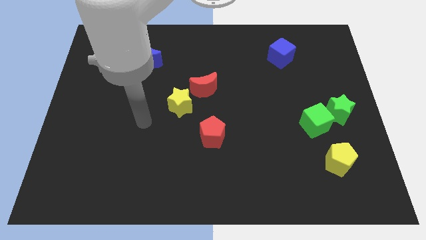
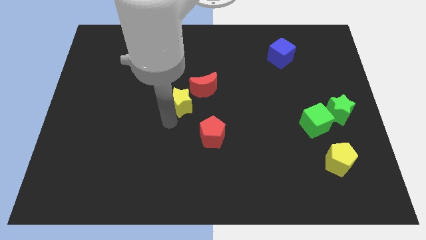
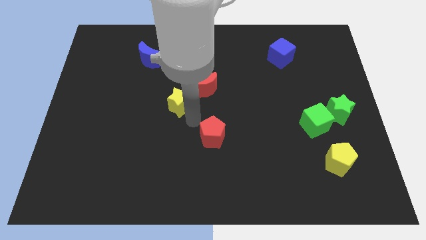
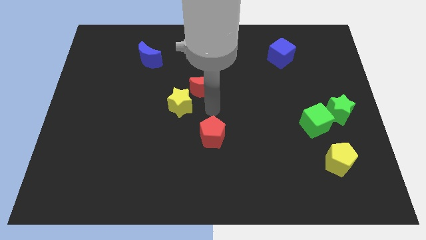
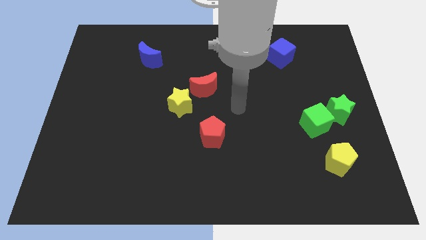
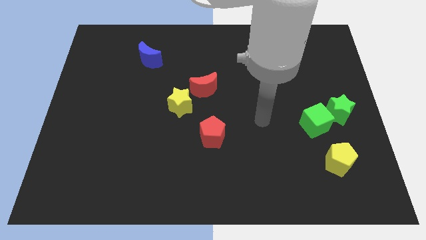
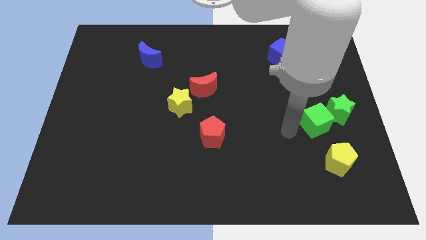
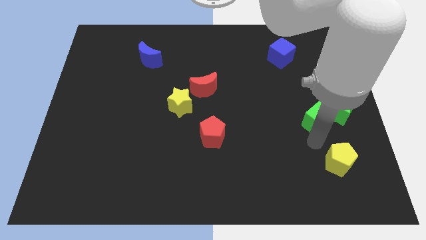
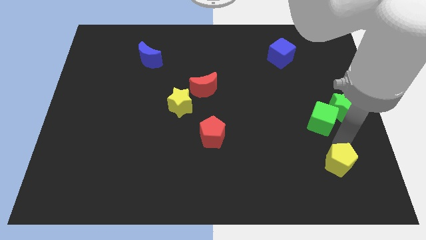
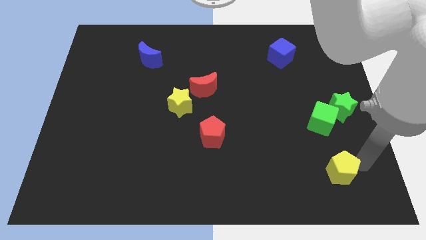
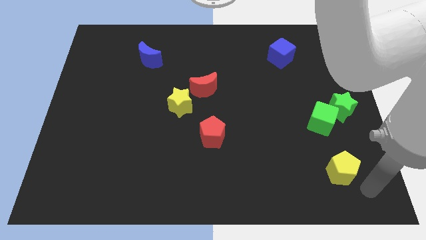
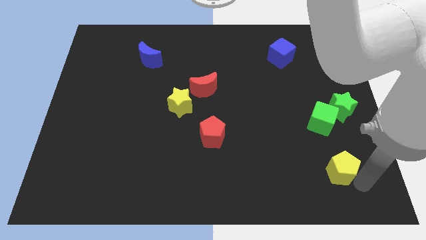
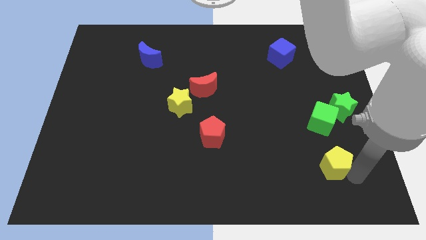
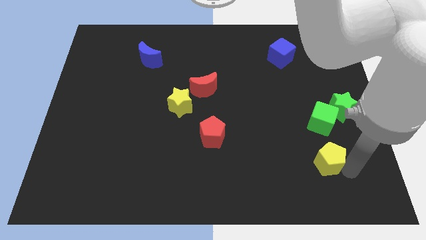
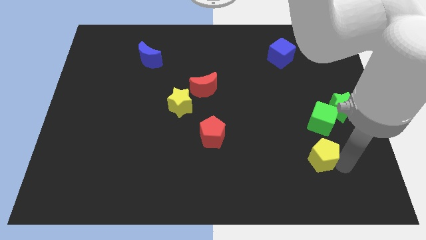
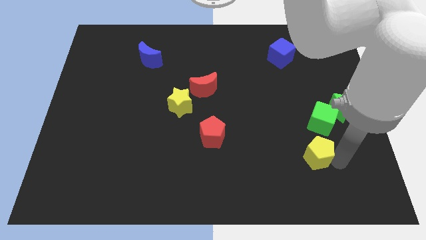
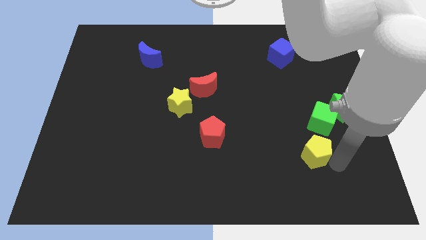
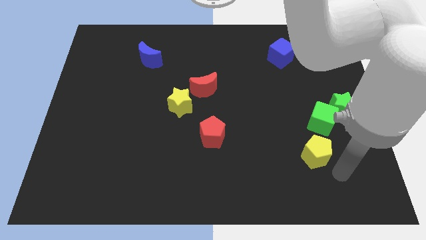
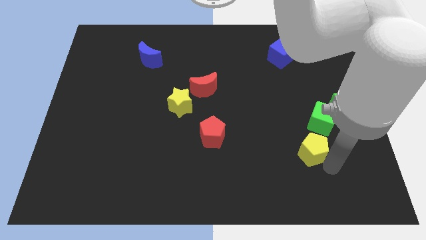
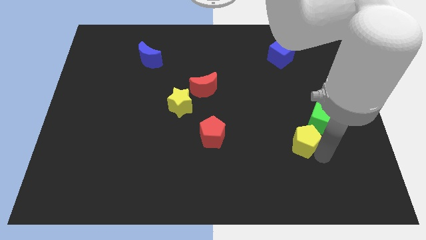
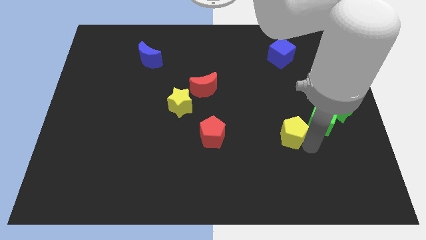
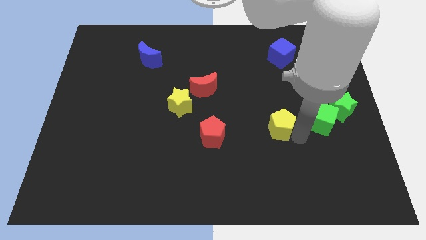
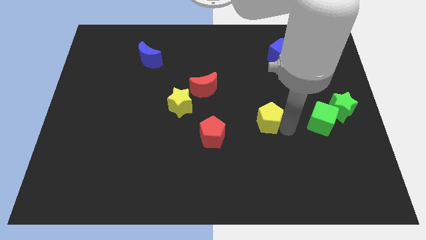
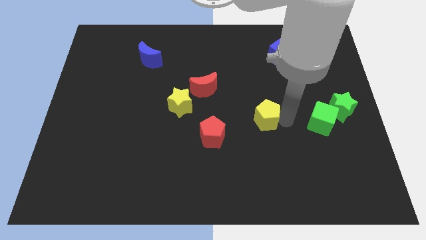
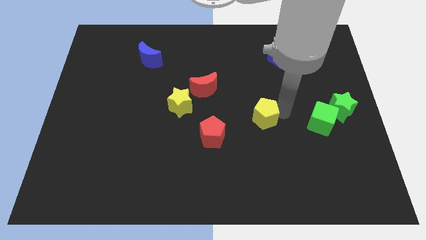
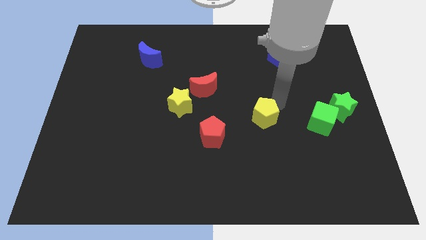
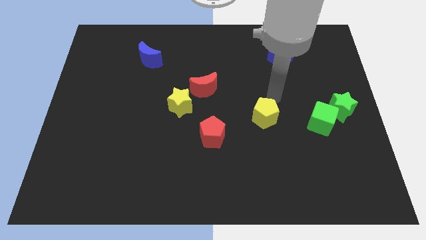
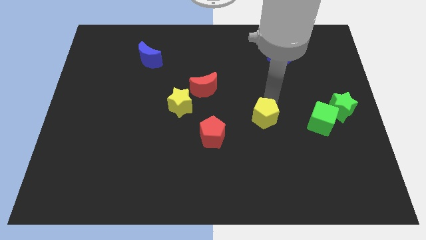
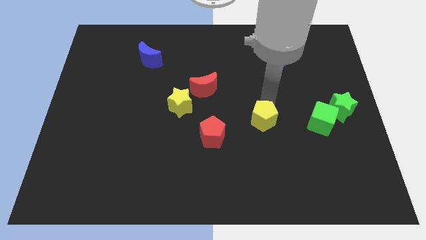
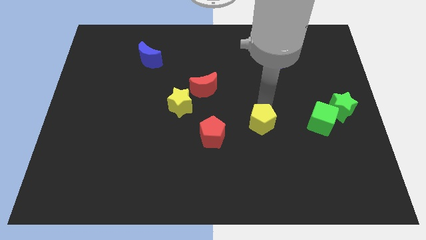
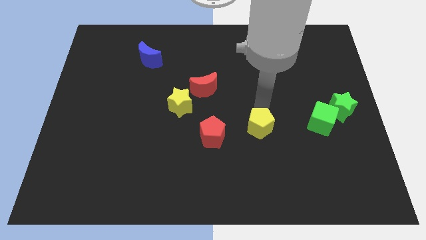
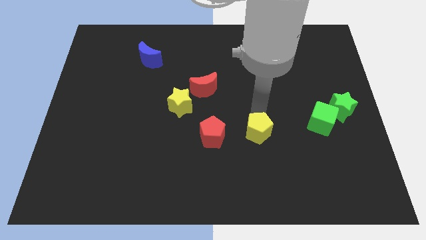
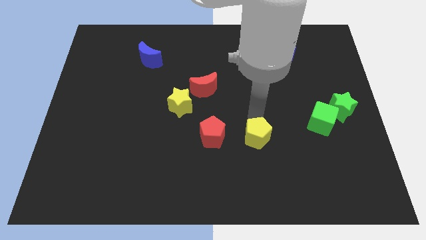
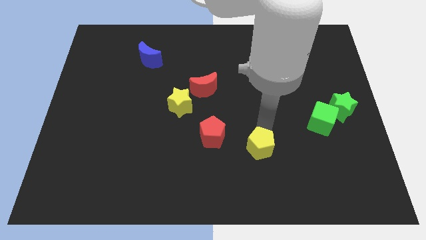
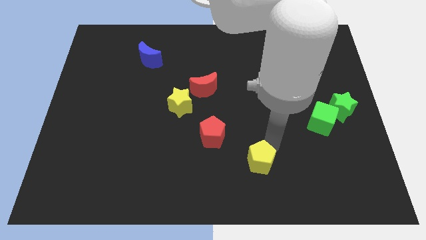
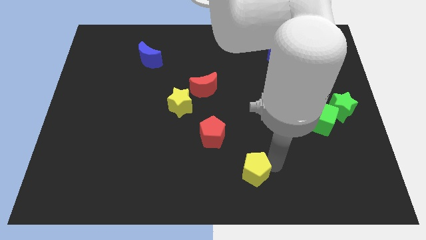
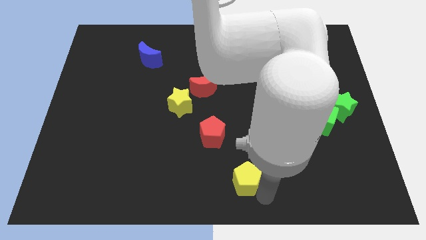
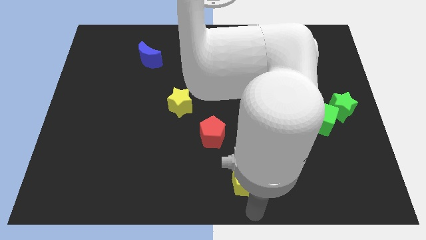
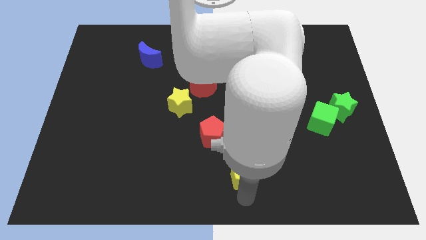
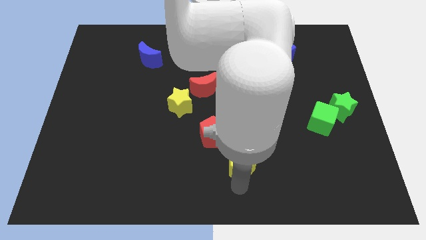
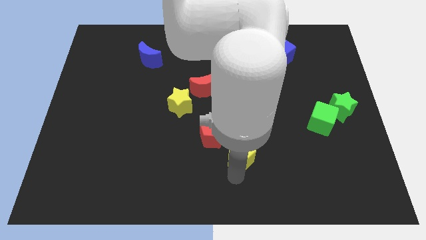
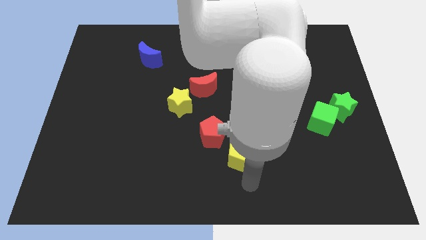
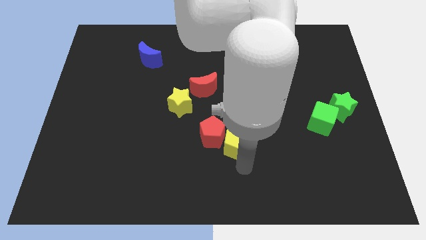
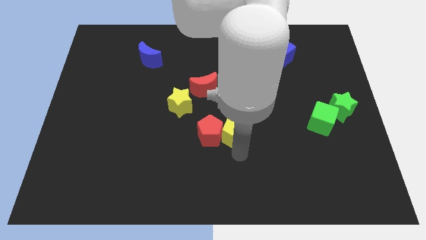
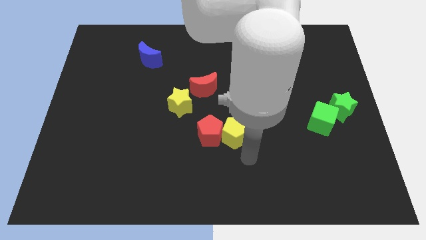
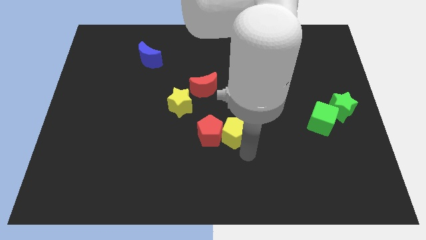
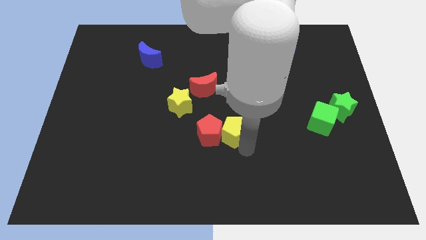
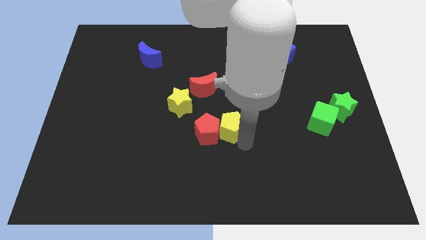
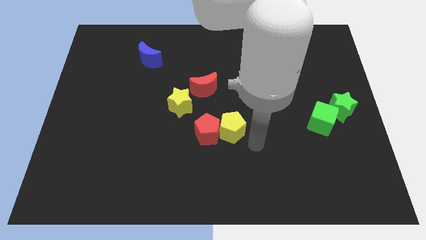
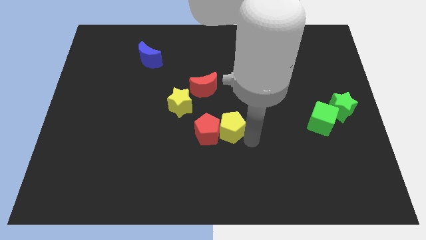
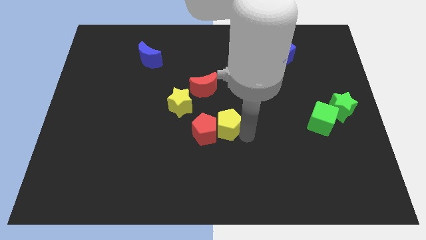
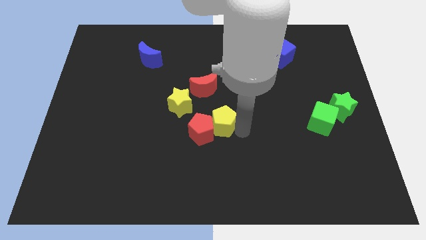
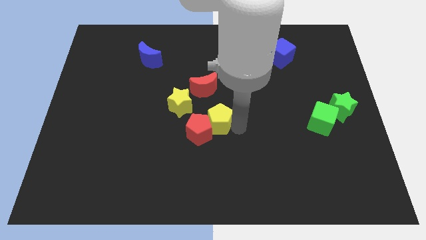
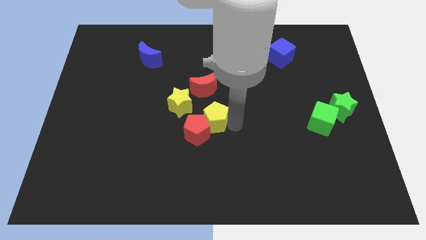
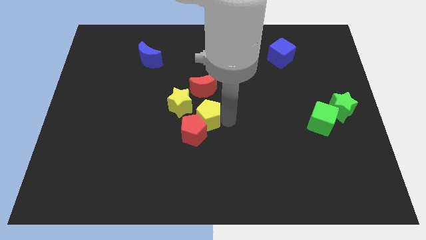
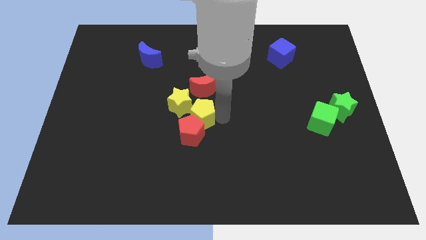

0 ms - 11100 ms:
put the yellow pentagon next to the yellow star

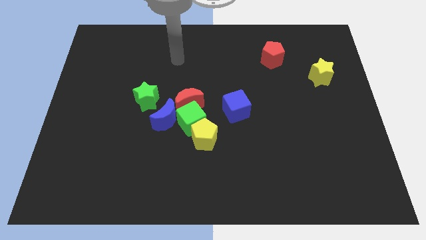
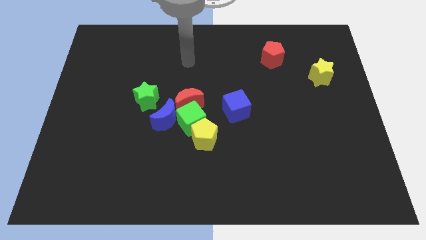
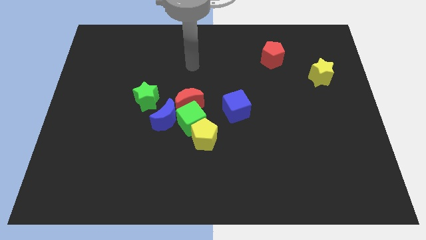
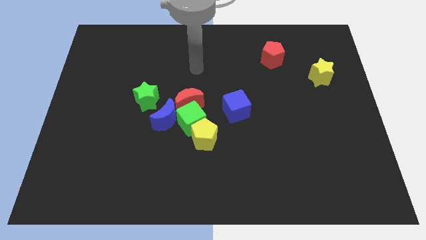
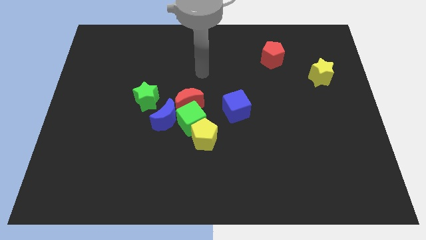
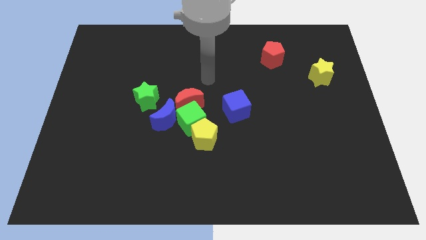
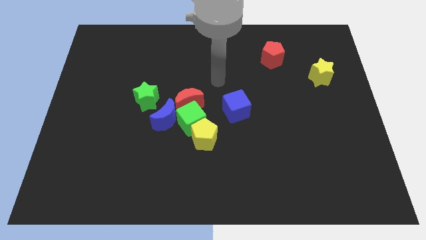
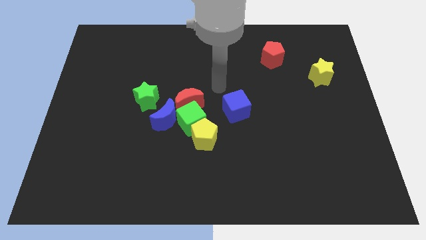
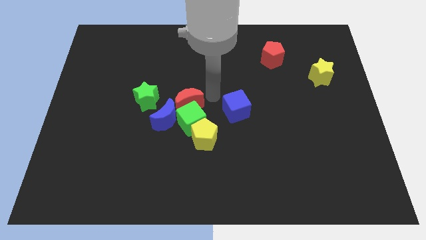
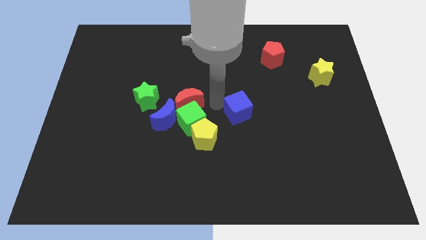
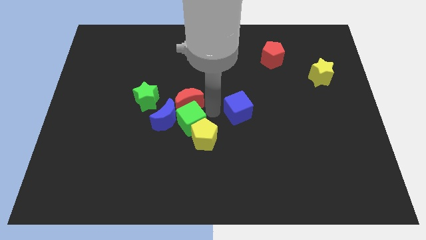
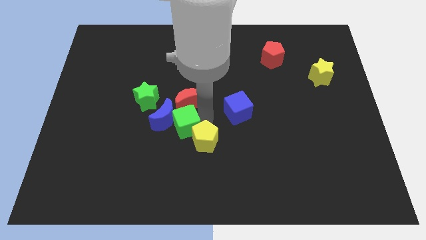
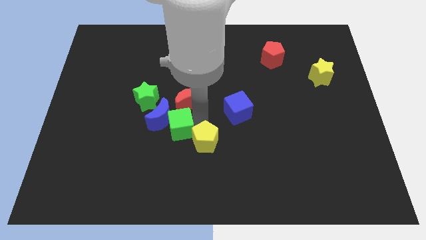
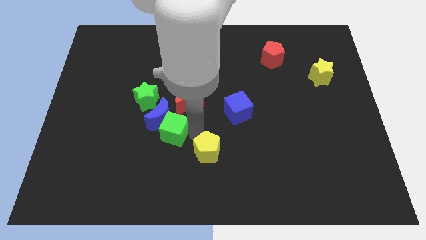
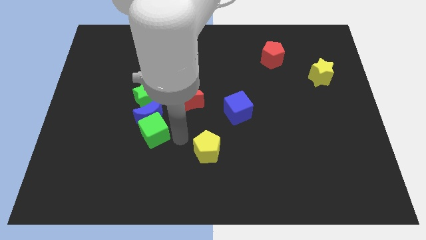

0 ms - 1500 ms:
slide the blue moon close to the green star
